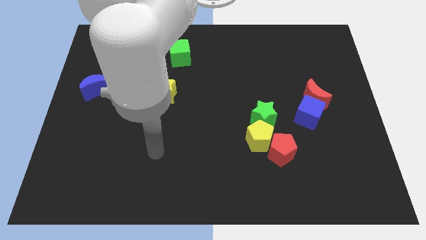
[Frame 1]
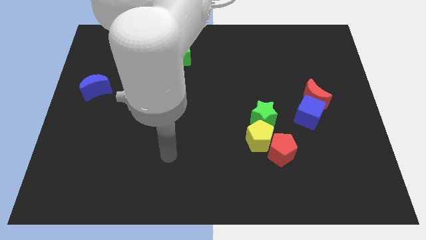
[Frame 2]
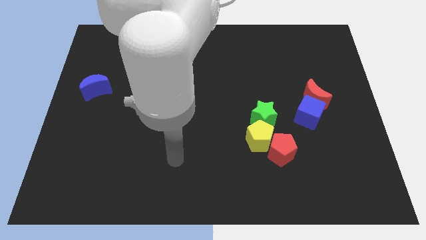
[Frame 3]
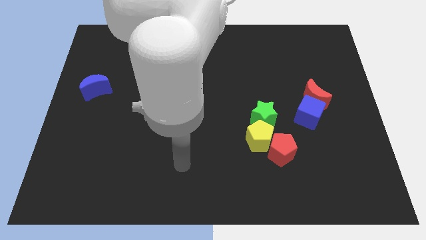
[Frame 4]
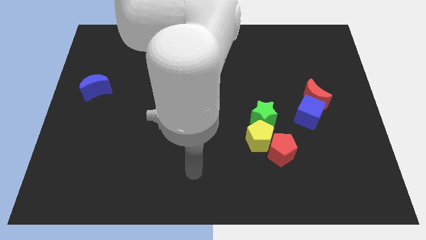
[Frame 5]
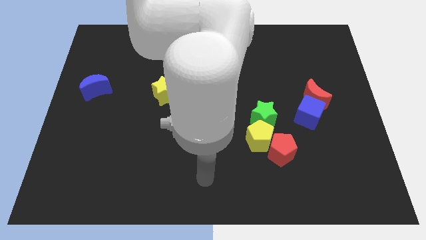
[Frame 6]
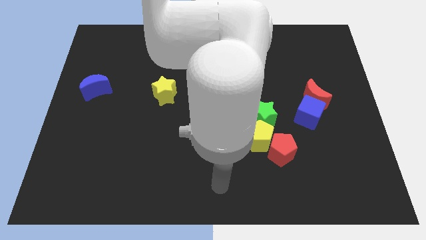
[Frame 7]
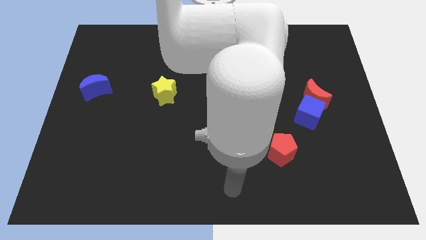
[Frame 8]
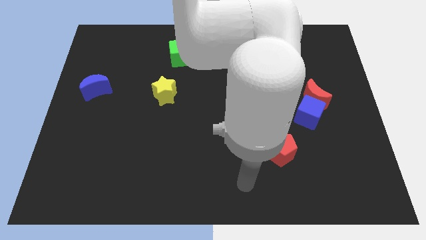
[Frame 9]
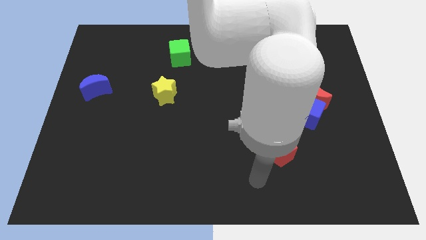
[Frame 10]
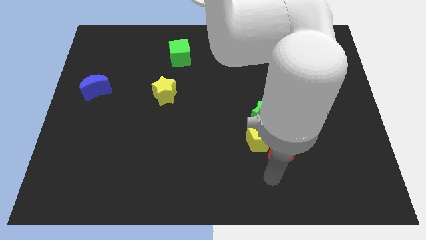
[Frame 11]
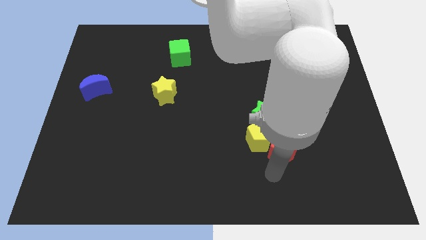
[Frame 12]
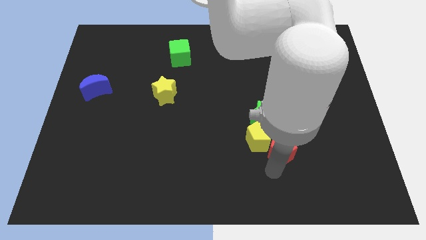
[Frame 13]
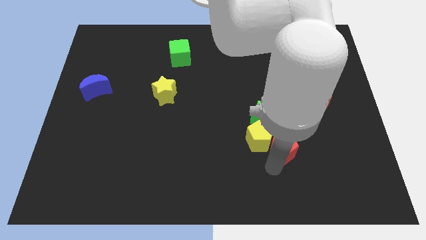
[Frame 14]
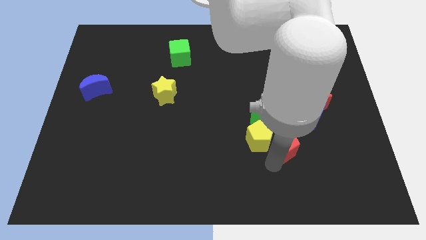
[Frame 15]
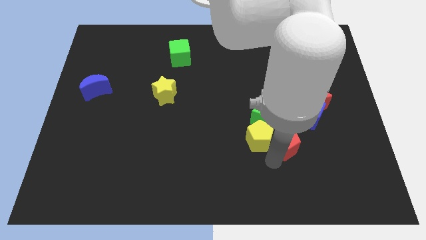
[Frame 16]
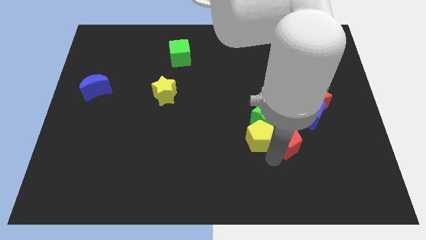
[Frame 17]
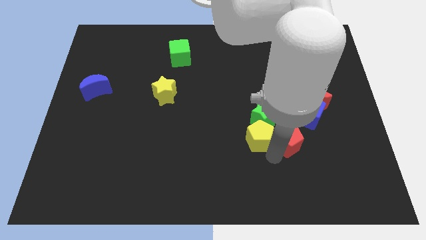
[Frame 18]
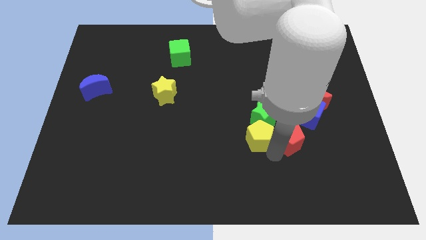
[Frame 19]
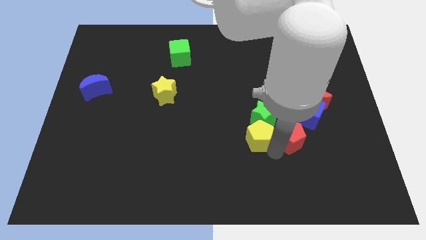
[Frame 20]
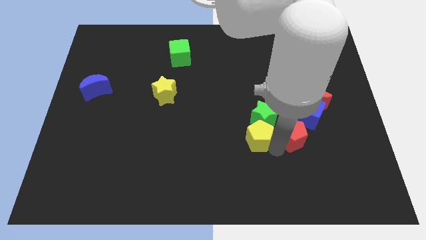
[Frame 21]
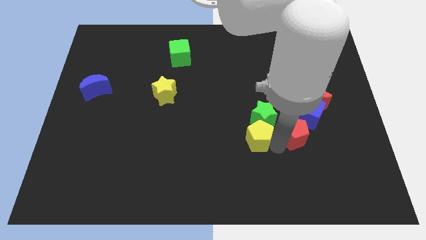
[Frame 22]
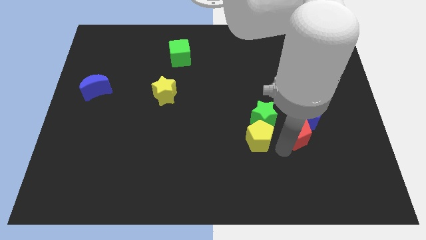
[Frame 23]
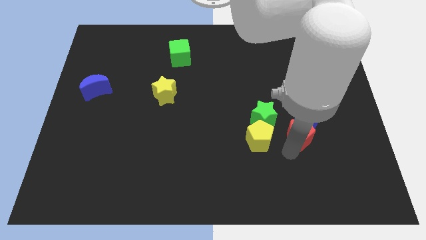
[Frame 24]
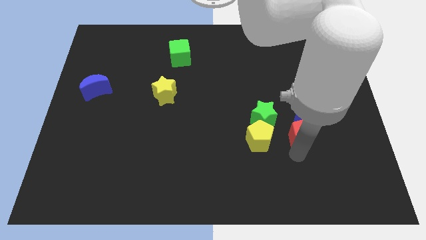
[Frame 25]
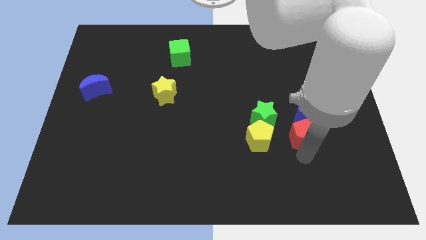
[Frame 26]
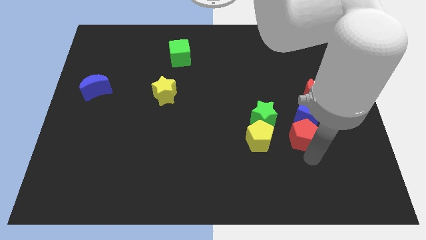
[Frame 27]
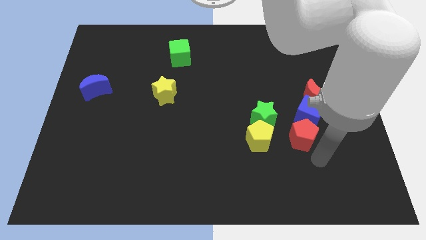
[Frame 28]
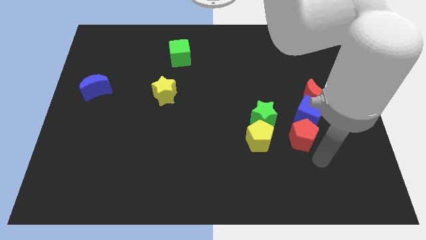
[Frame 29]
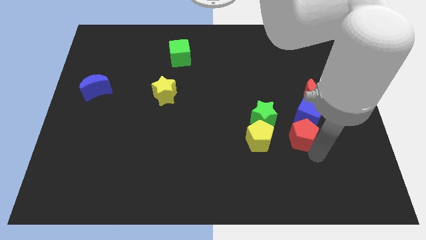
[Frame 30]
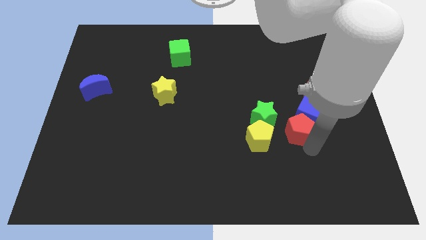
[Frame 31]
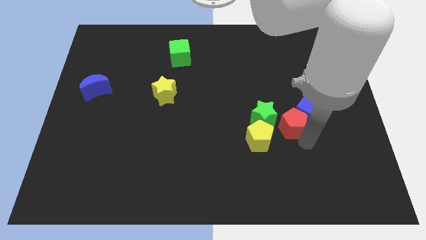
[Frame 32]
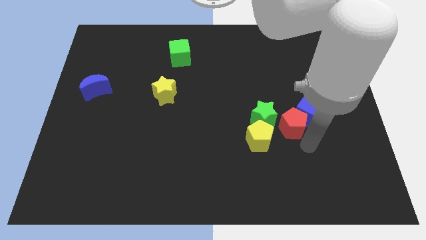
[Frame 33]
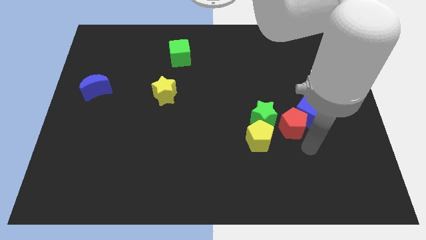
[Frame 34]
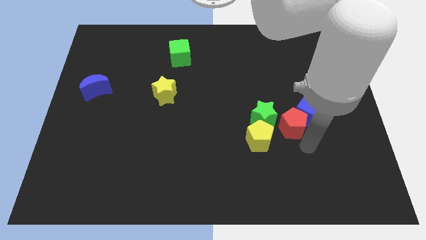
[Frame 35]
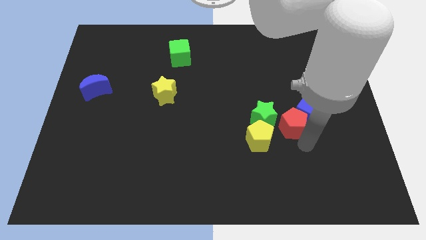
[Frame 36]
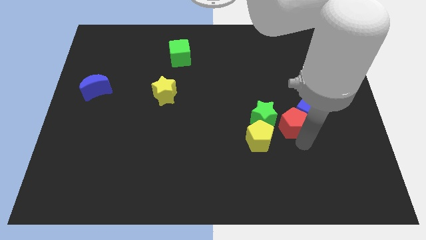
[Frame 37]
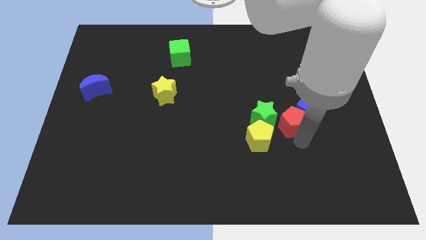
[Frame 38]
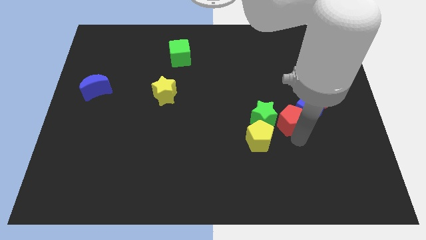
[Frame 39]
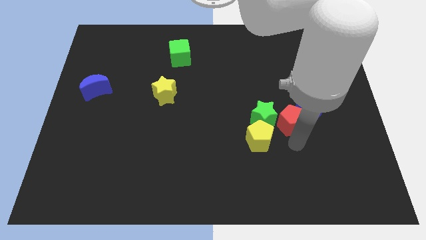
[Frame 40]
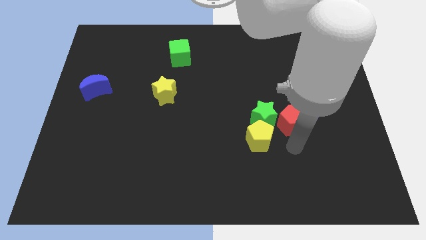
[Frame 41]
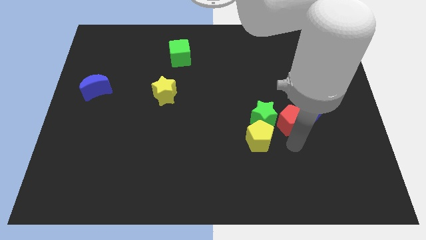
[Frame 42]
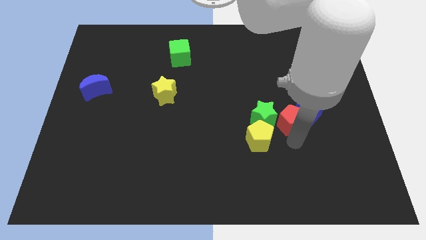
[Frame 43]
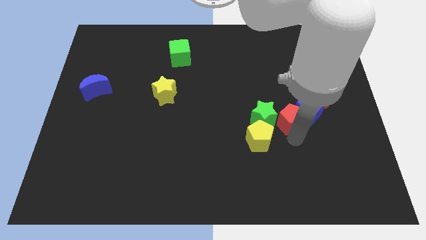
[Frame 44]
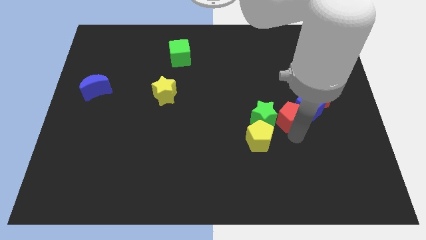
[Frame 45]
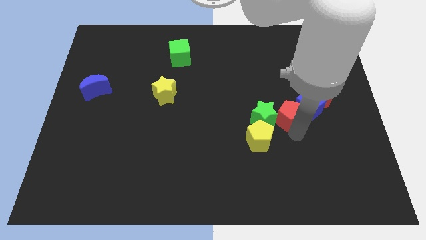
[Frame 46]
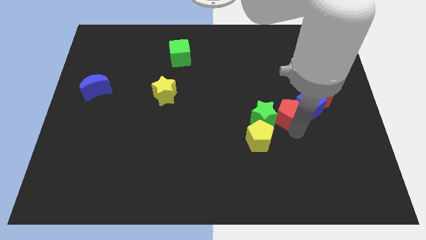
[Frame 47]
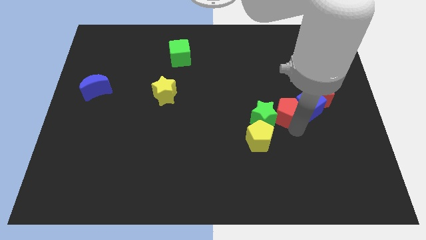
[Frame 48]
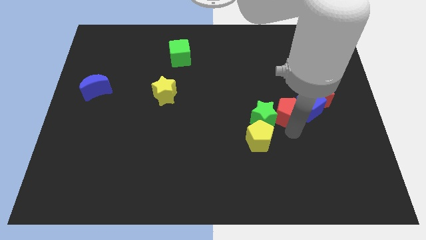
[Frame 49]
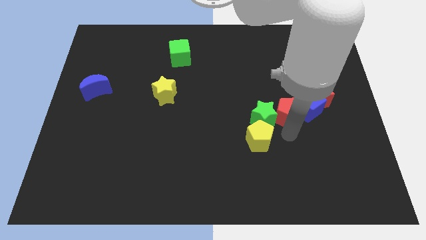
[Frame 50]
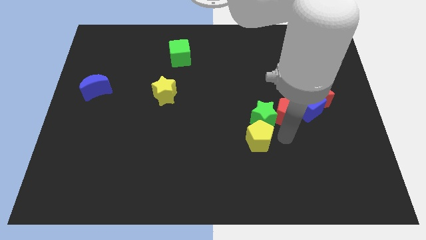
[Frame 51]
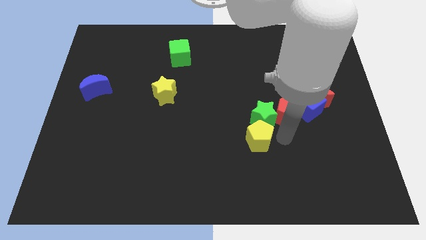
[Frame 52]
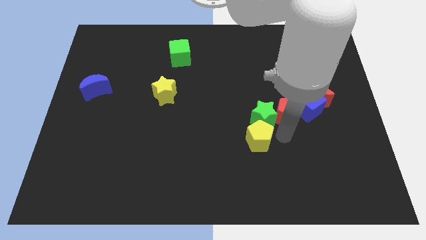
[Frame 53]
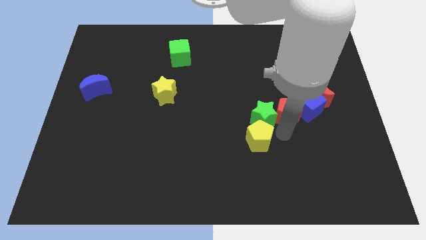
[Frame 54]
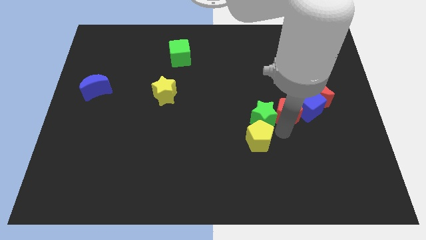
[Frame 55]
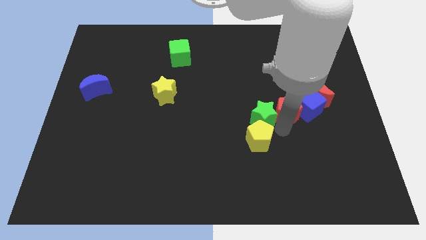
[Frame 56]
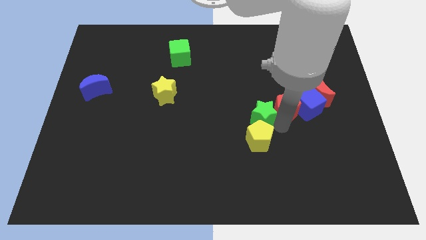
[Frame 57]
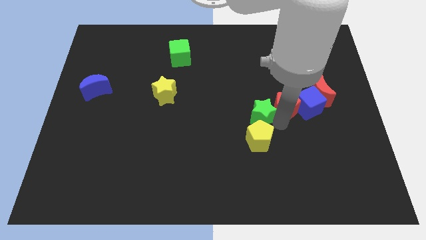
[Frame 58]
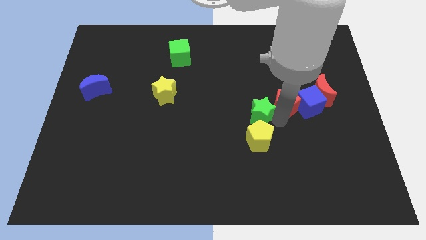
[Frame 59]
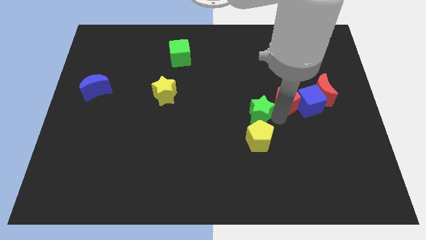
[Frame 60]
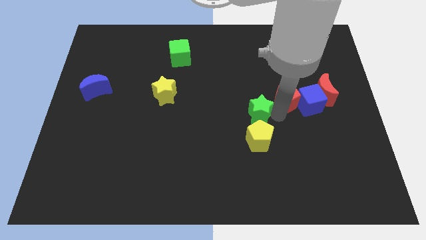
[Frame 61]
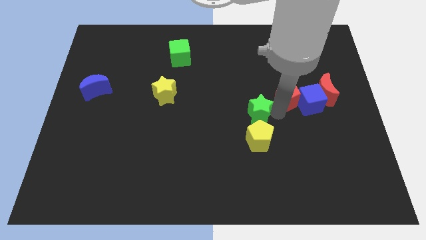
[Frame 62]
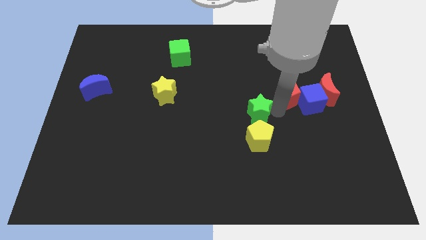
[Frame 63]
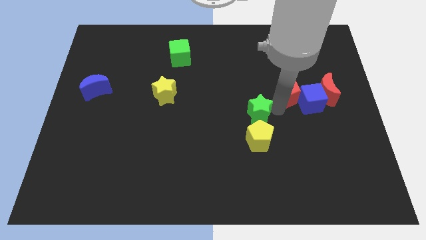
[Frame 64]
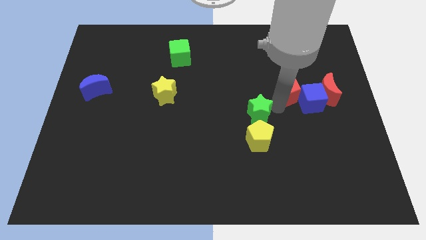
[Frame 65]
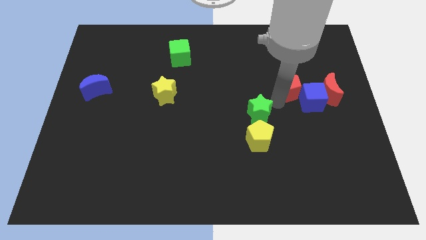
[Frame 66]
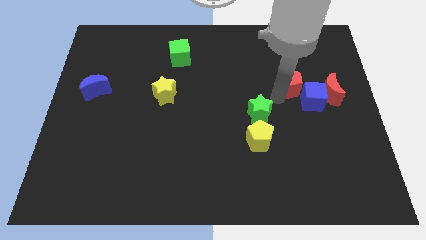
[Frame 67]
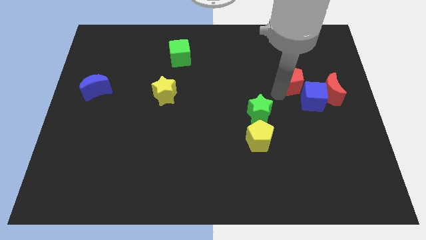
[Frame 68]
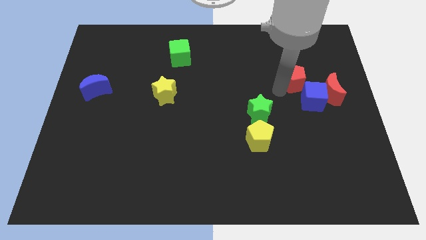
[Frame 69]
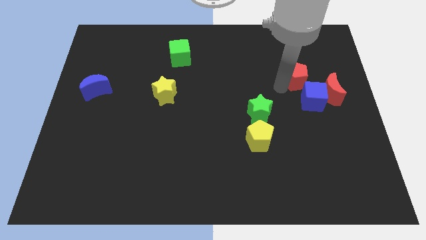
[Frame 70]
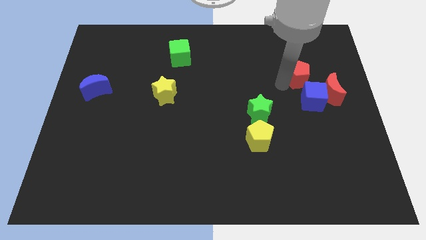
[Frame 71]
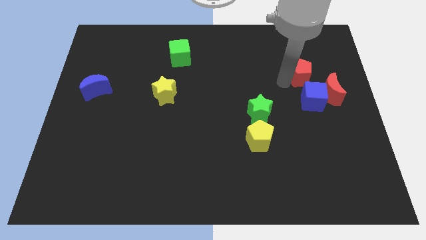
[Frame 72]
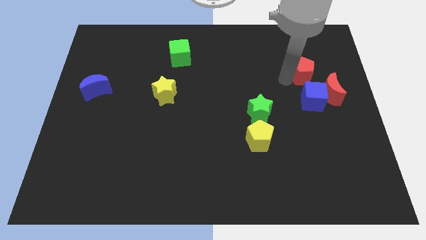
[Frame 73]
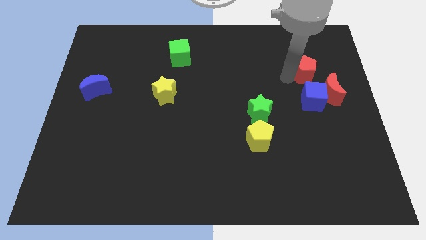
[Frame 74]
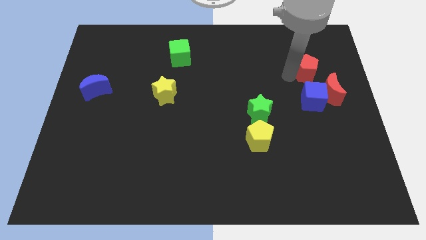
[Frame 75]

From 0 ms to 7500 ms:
move the red pentagon above the red moon
